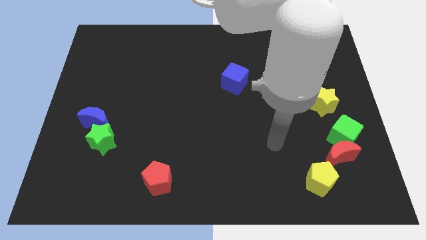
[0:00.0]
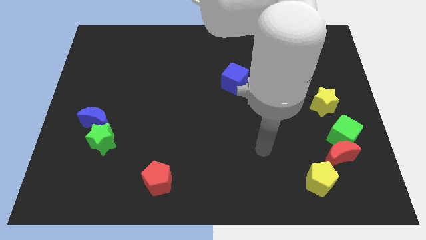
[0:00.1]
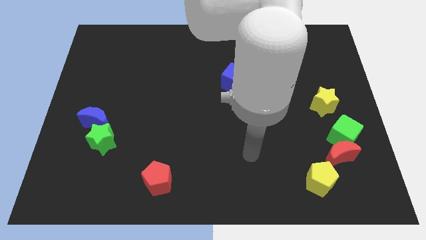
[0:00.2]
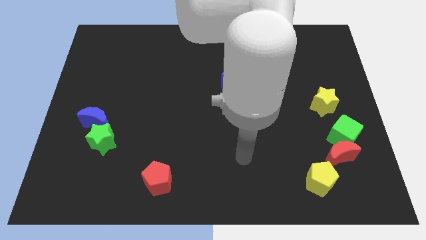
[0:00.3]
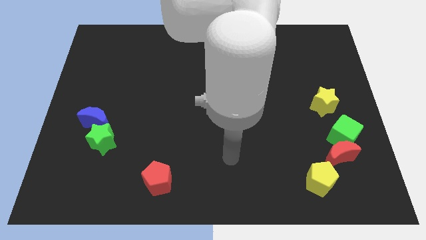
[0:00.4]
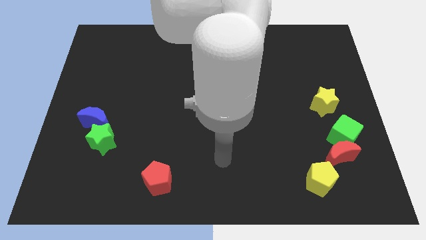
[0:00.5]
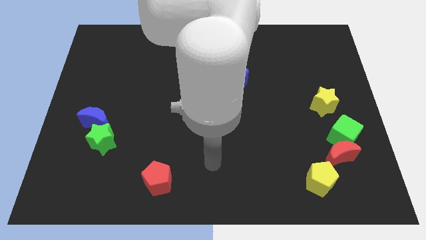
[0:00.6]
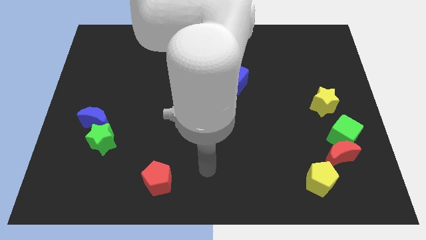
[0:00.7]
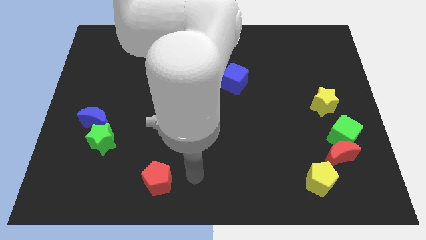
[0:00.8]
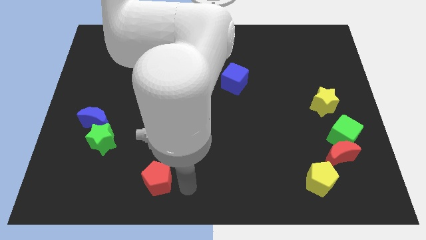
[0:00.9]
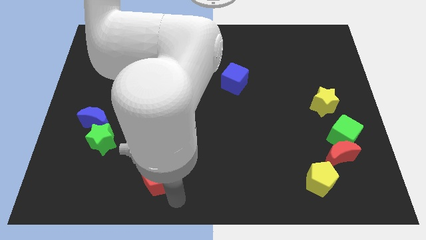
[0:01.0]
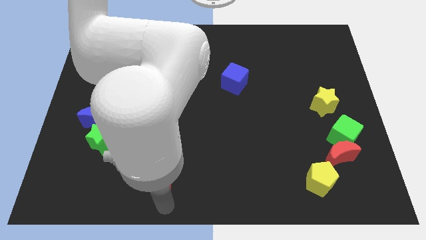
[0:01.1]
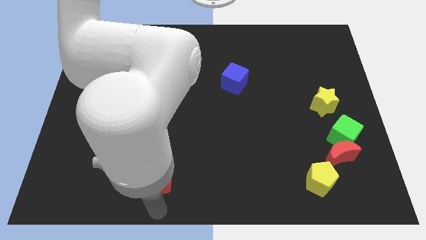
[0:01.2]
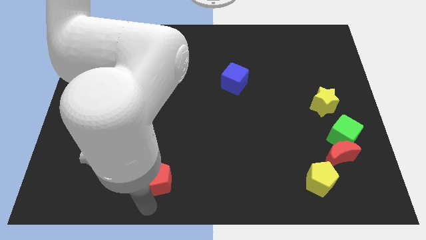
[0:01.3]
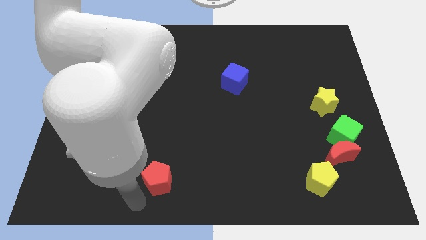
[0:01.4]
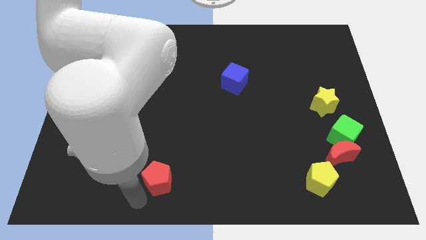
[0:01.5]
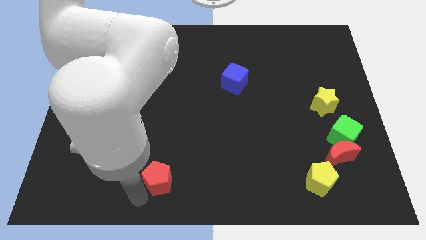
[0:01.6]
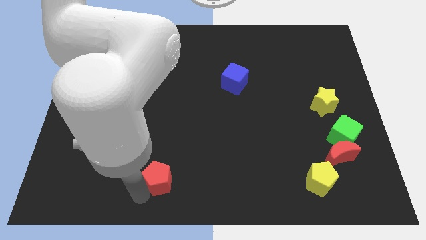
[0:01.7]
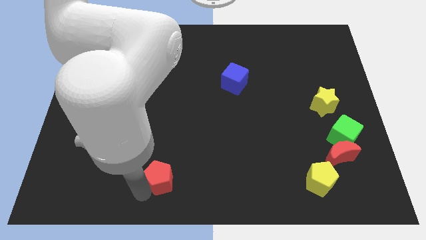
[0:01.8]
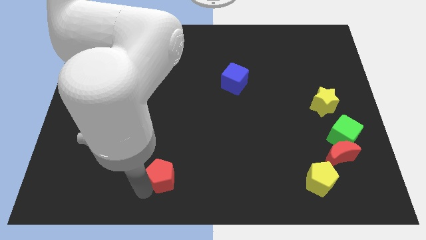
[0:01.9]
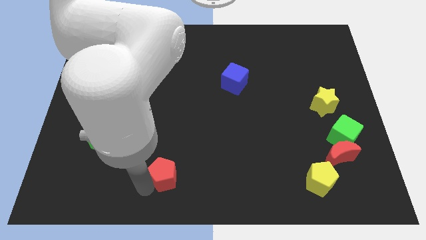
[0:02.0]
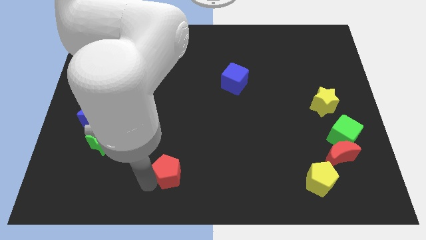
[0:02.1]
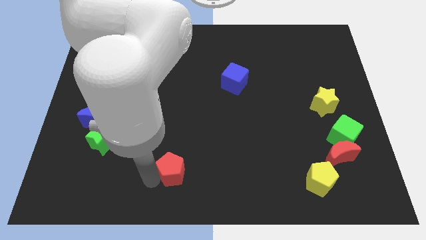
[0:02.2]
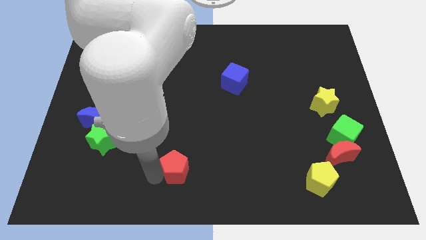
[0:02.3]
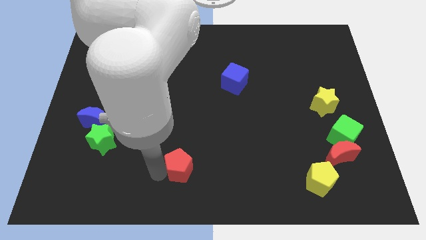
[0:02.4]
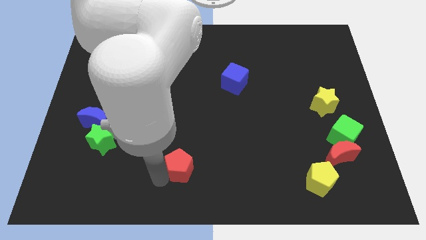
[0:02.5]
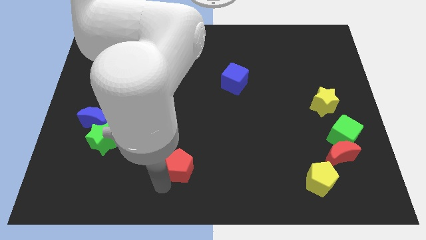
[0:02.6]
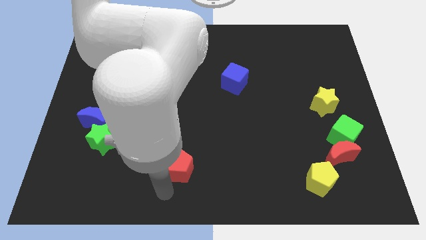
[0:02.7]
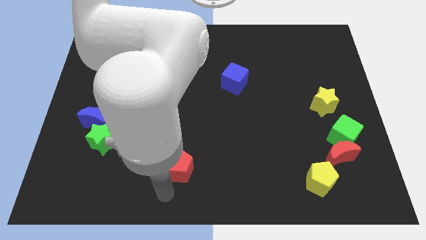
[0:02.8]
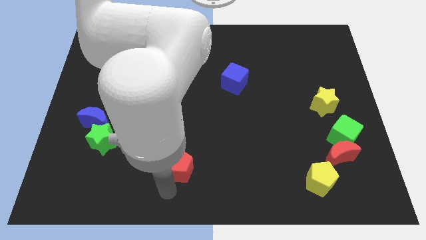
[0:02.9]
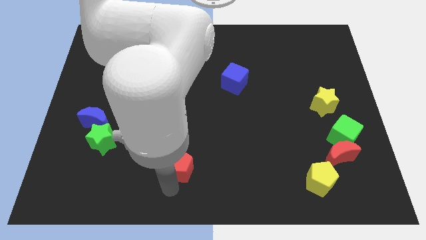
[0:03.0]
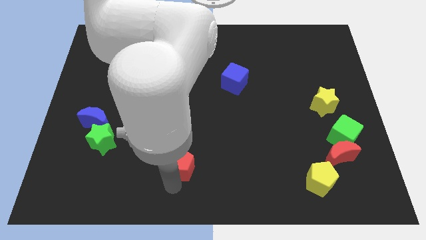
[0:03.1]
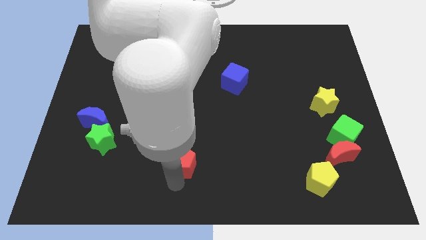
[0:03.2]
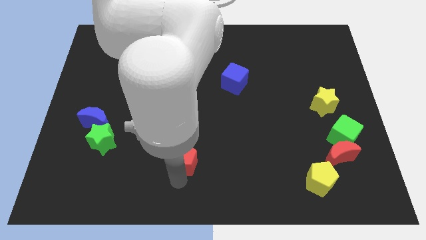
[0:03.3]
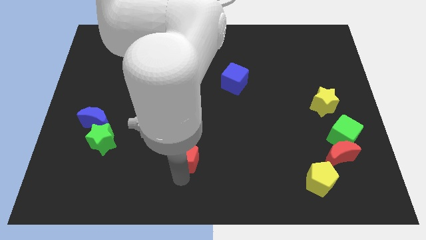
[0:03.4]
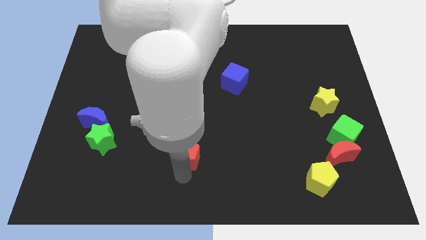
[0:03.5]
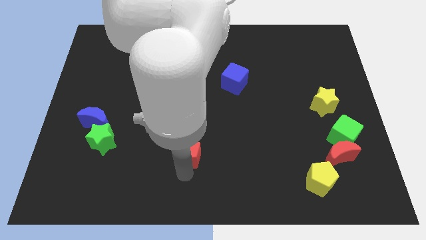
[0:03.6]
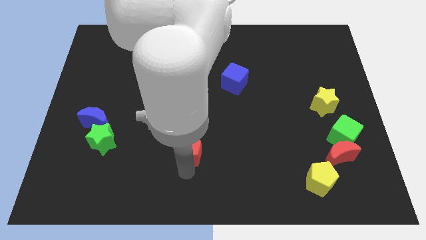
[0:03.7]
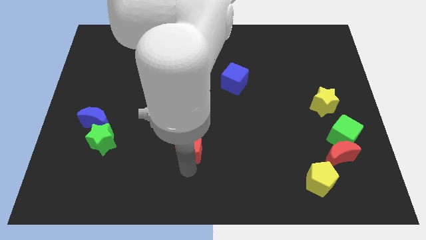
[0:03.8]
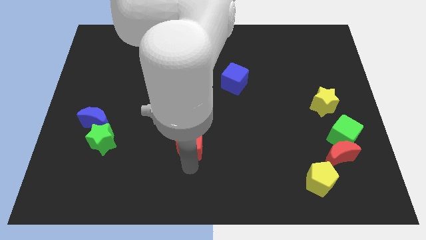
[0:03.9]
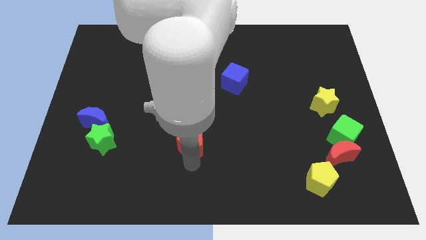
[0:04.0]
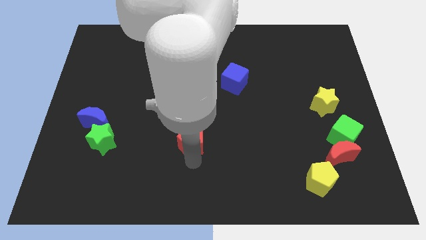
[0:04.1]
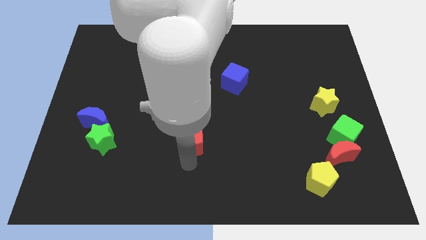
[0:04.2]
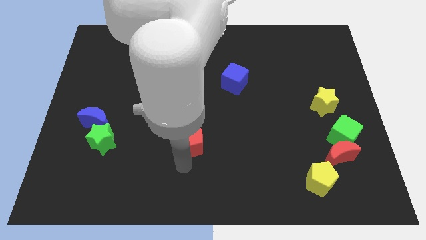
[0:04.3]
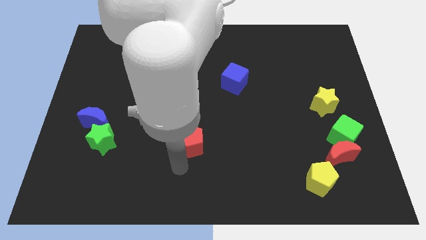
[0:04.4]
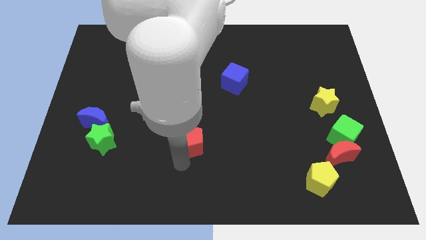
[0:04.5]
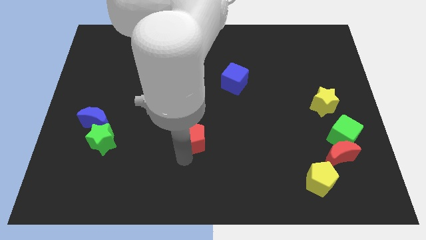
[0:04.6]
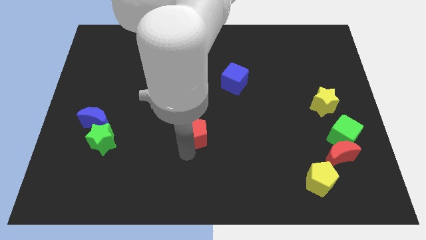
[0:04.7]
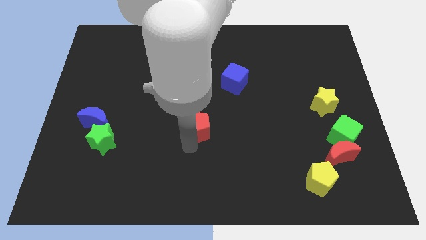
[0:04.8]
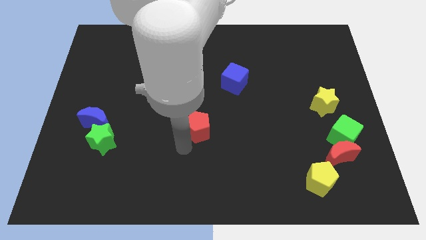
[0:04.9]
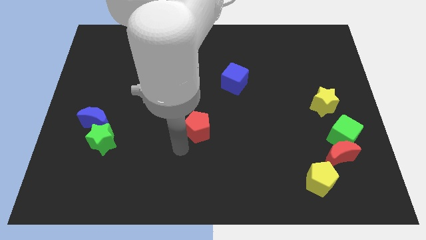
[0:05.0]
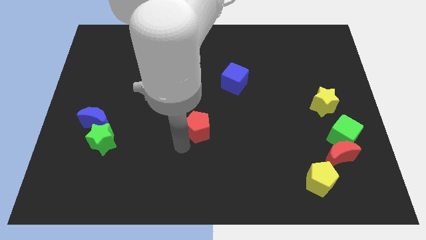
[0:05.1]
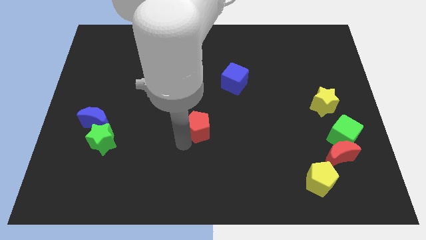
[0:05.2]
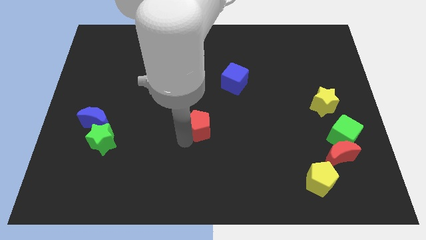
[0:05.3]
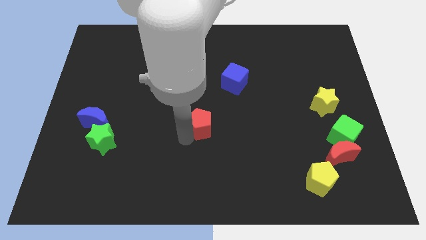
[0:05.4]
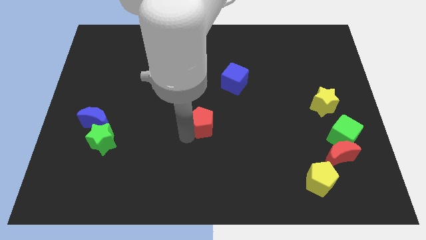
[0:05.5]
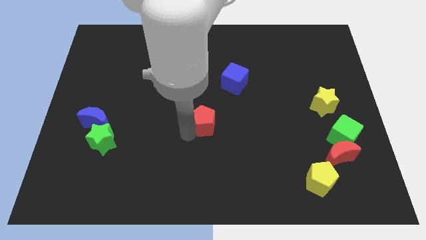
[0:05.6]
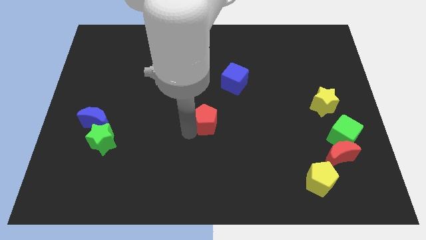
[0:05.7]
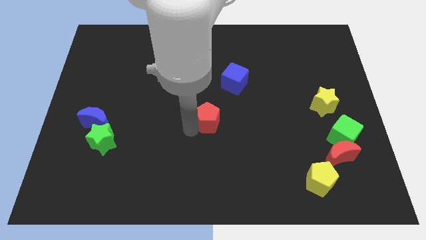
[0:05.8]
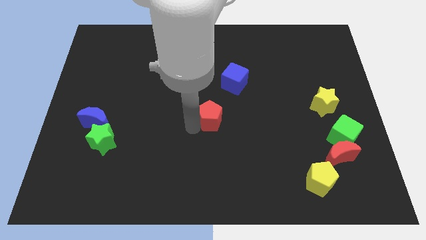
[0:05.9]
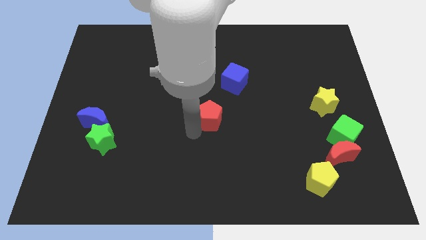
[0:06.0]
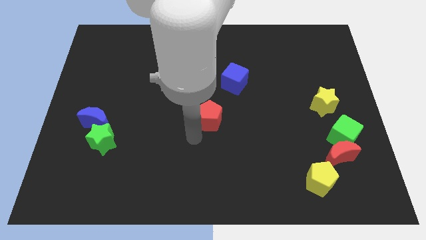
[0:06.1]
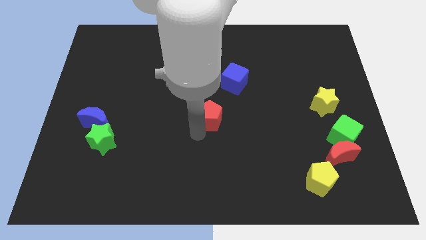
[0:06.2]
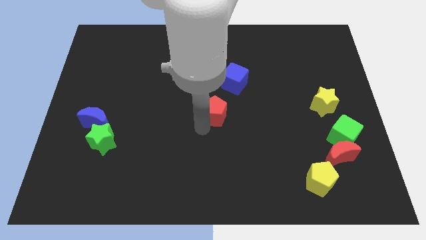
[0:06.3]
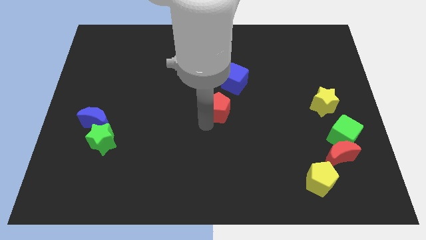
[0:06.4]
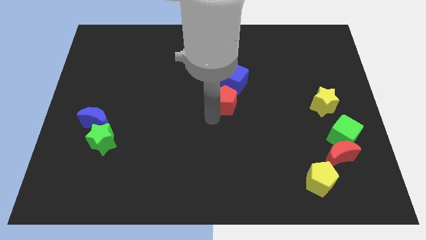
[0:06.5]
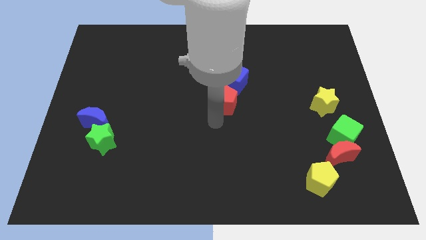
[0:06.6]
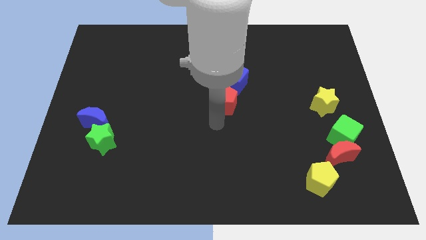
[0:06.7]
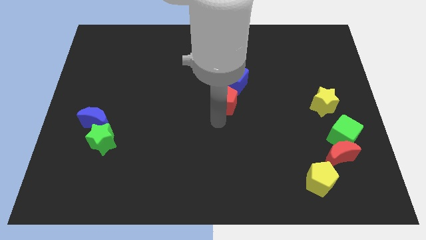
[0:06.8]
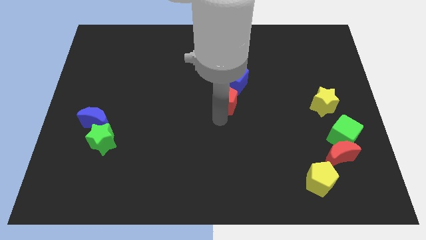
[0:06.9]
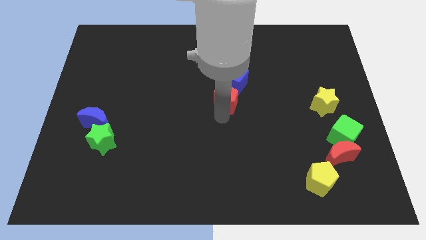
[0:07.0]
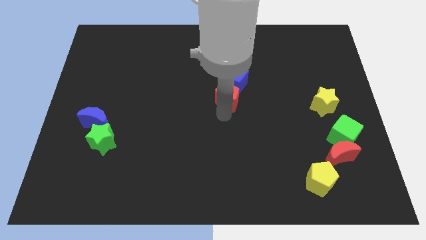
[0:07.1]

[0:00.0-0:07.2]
put the red pentagon close to the blue cube
